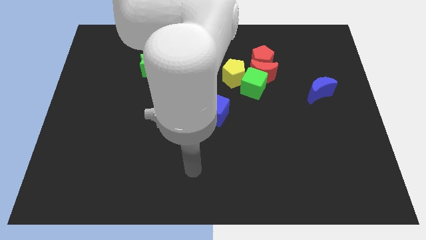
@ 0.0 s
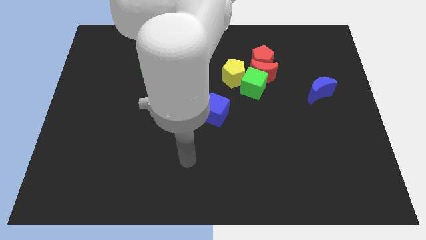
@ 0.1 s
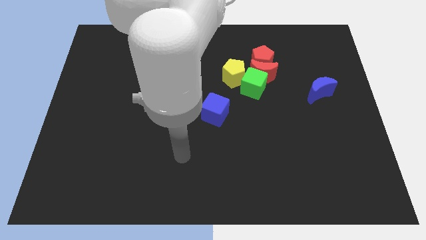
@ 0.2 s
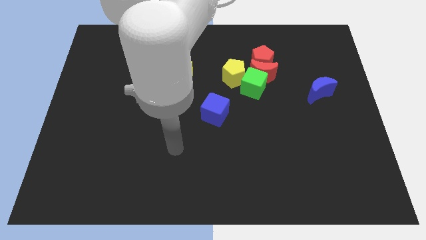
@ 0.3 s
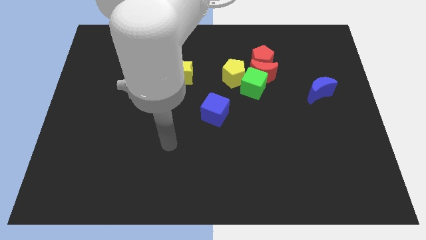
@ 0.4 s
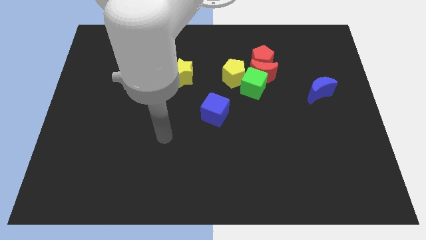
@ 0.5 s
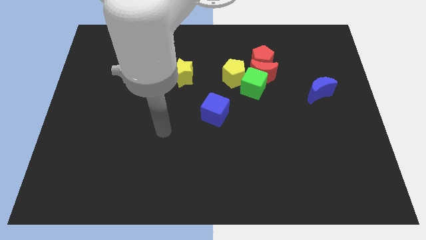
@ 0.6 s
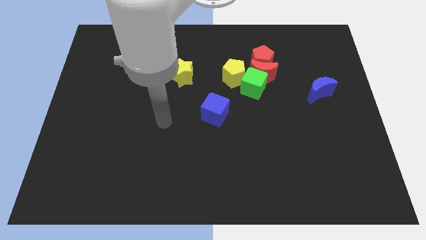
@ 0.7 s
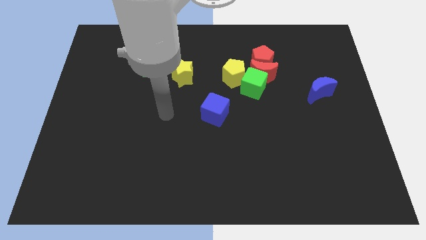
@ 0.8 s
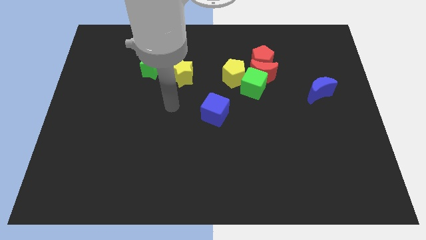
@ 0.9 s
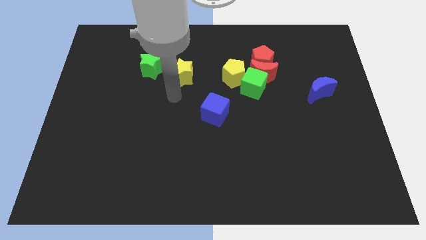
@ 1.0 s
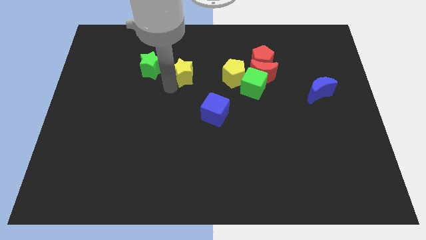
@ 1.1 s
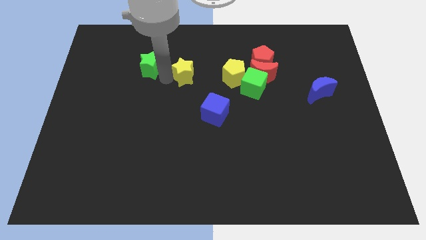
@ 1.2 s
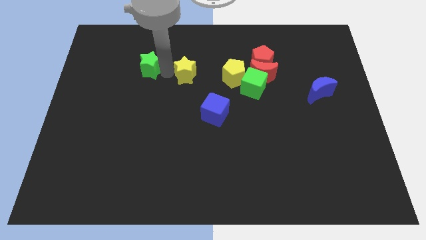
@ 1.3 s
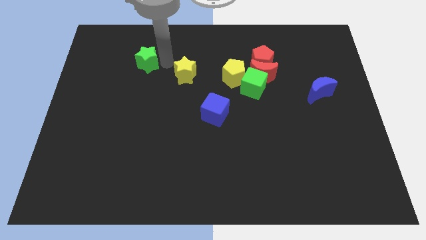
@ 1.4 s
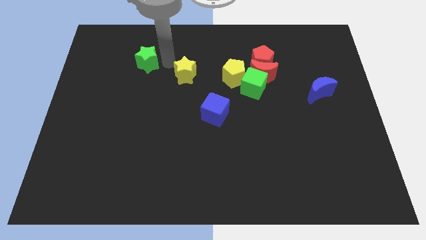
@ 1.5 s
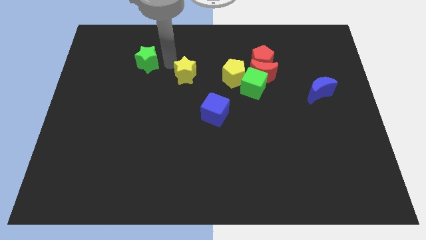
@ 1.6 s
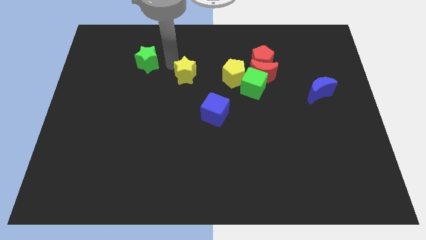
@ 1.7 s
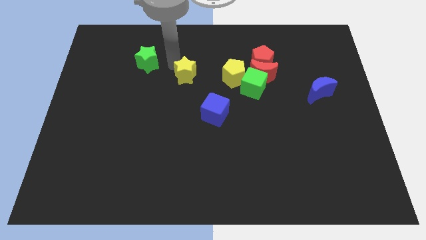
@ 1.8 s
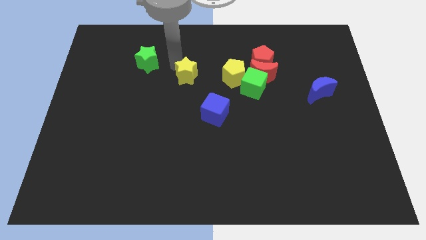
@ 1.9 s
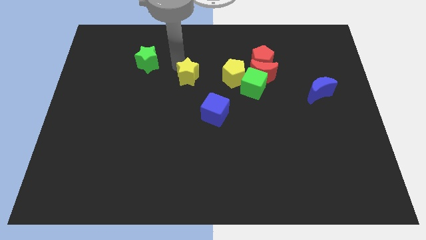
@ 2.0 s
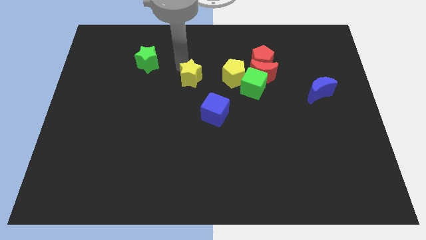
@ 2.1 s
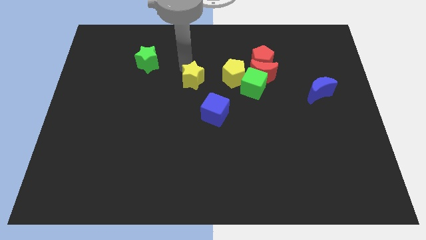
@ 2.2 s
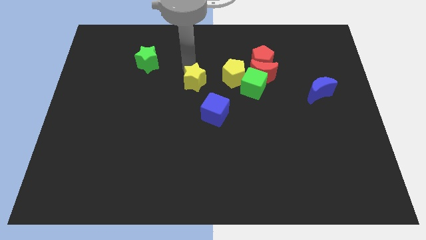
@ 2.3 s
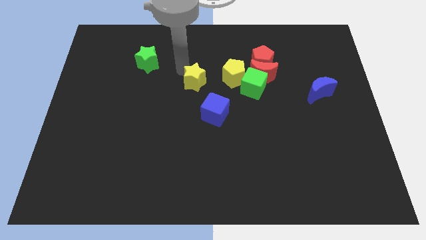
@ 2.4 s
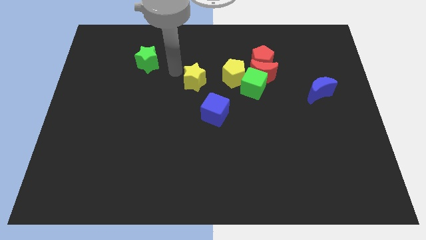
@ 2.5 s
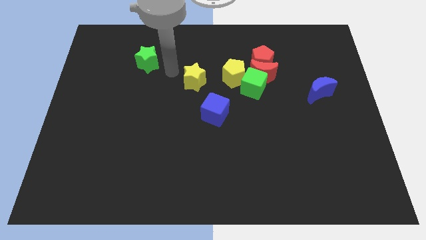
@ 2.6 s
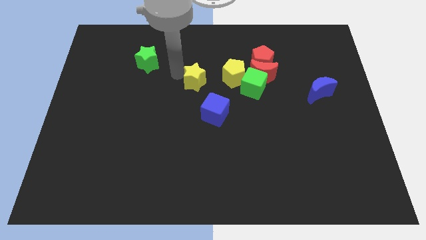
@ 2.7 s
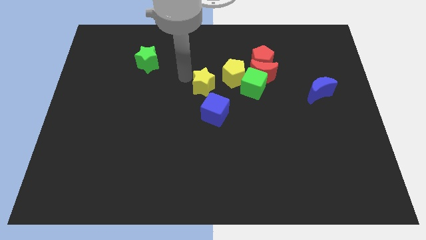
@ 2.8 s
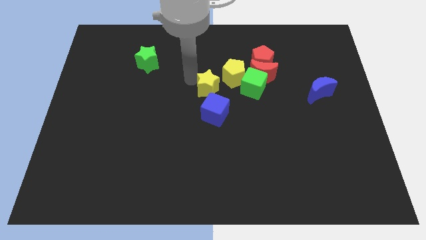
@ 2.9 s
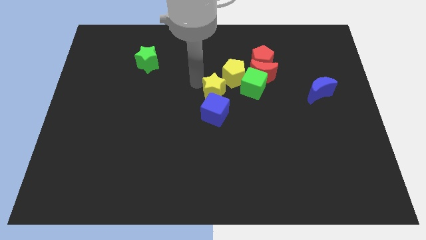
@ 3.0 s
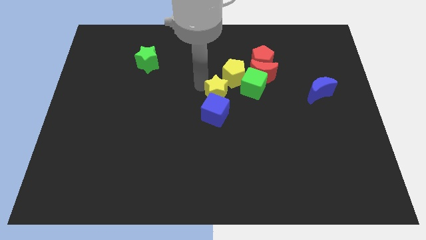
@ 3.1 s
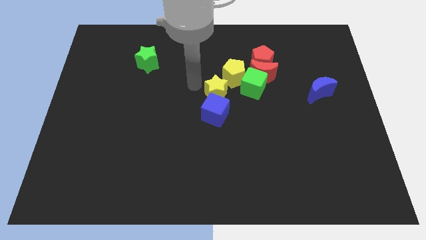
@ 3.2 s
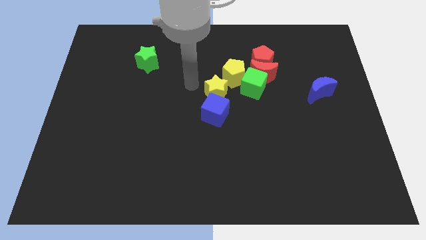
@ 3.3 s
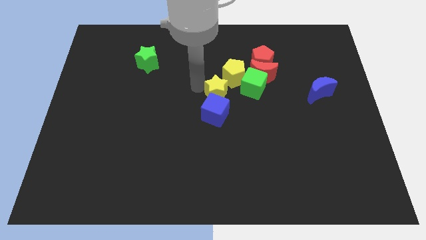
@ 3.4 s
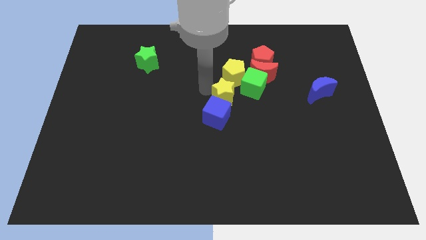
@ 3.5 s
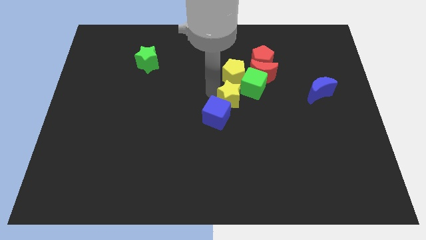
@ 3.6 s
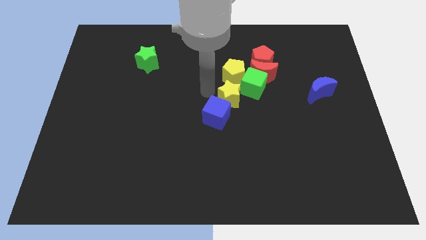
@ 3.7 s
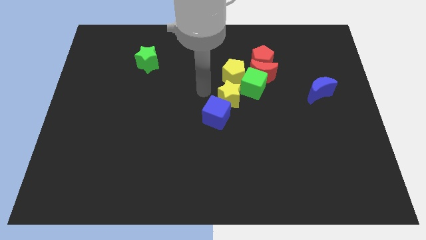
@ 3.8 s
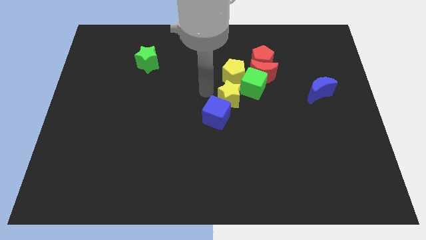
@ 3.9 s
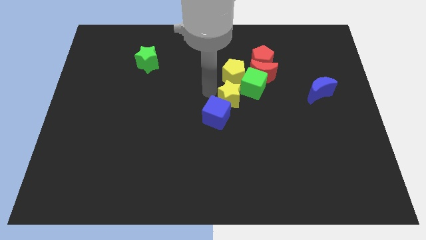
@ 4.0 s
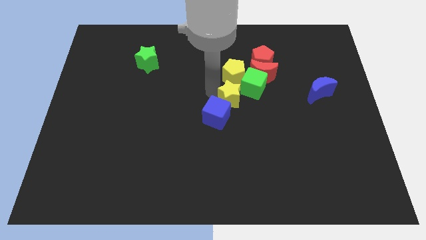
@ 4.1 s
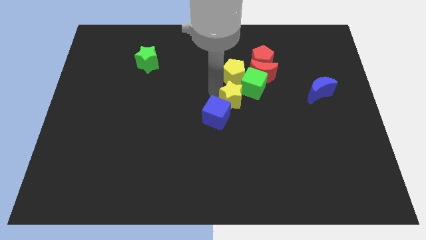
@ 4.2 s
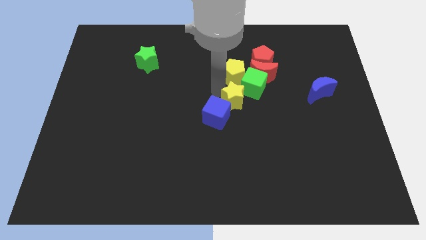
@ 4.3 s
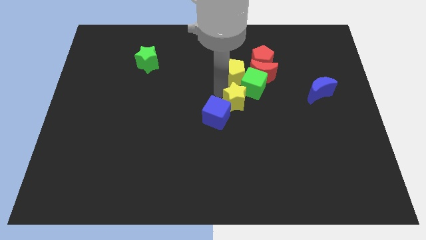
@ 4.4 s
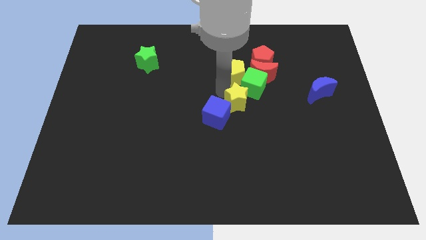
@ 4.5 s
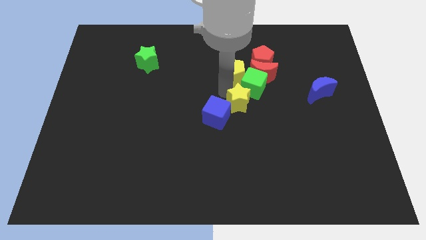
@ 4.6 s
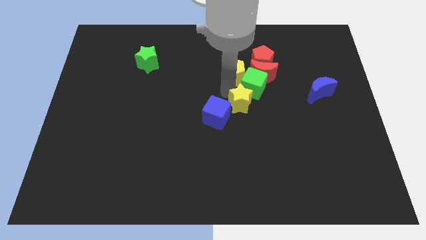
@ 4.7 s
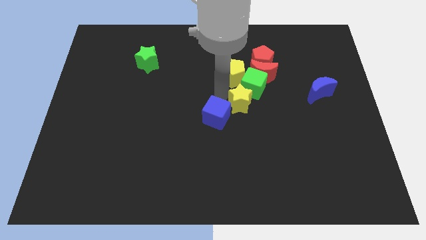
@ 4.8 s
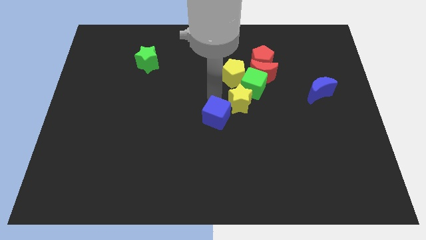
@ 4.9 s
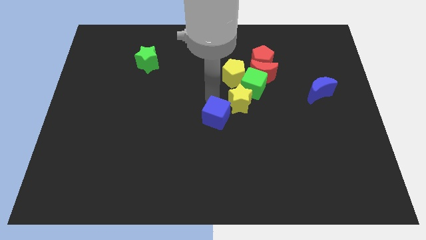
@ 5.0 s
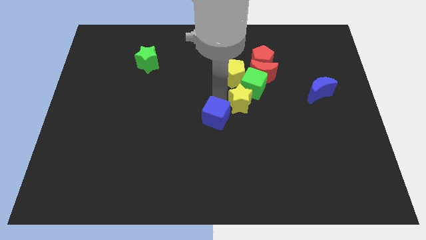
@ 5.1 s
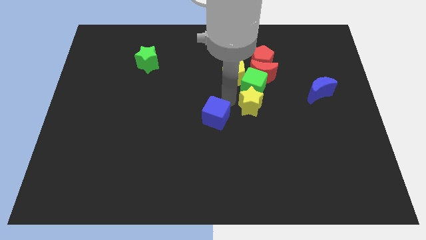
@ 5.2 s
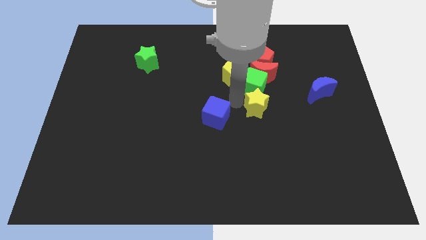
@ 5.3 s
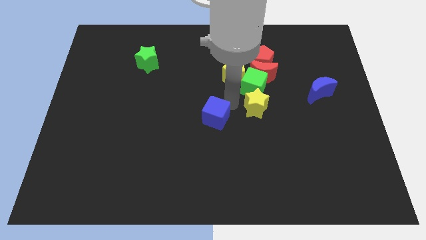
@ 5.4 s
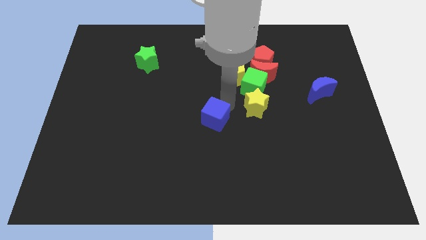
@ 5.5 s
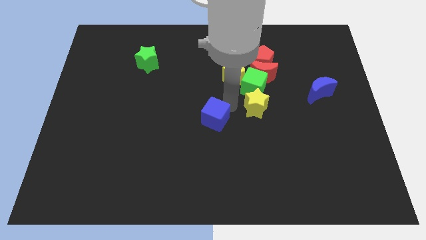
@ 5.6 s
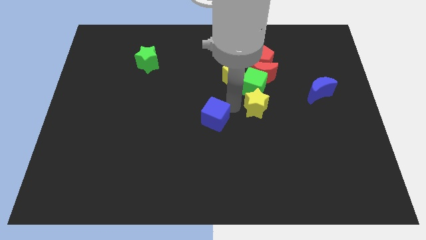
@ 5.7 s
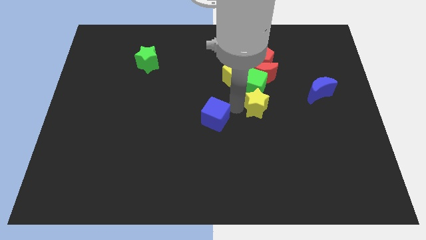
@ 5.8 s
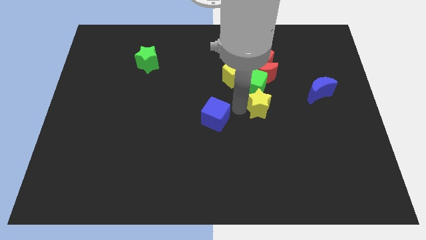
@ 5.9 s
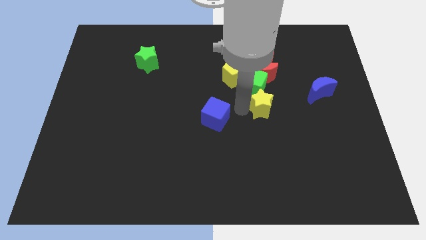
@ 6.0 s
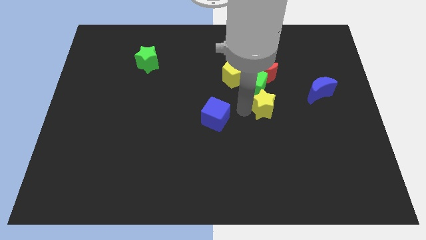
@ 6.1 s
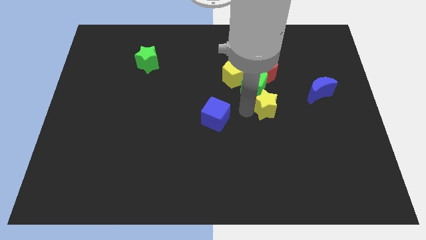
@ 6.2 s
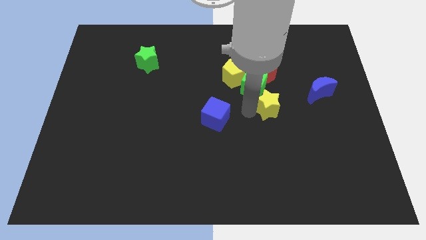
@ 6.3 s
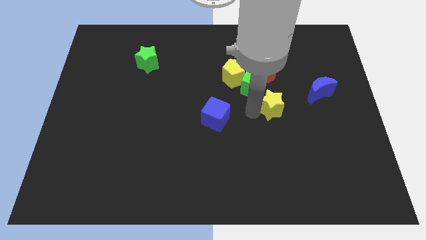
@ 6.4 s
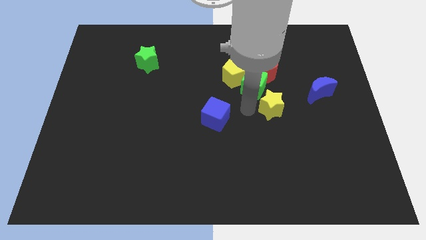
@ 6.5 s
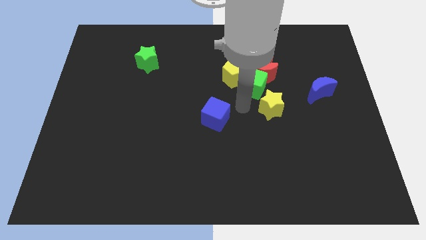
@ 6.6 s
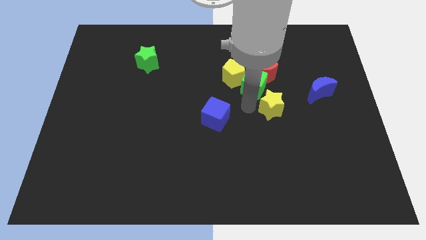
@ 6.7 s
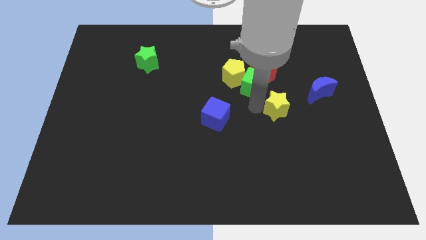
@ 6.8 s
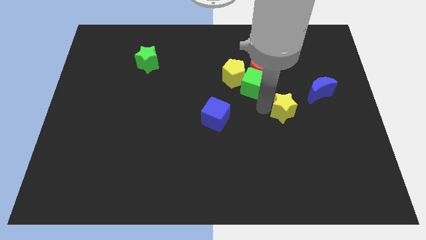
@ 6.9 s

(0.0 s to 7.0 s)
slide the yellow star to the bottom left of the blue moon
